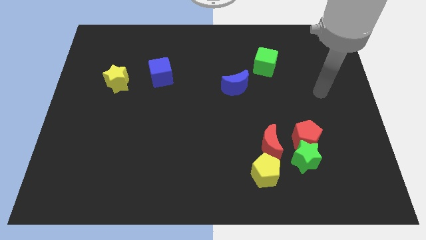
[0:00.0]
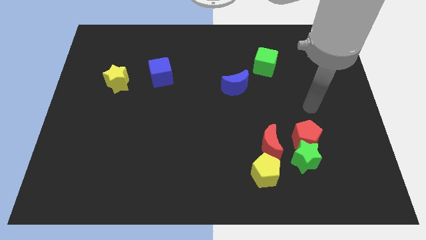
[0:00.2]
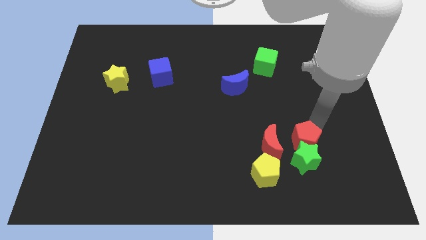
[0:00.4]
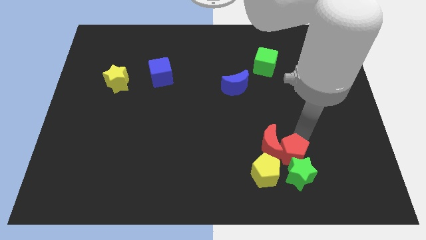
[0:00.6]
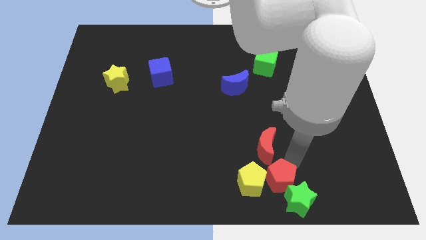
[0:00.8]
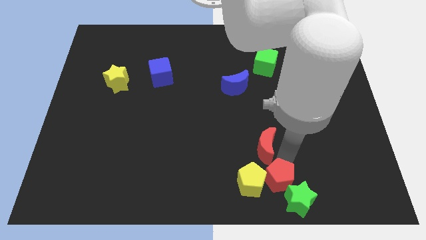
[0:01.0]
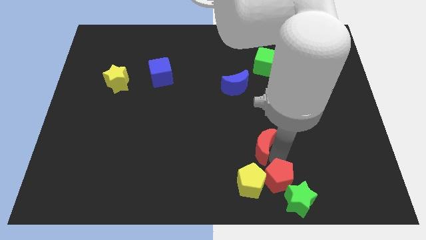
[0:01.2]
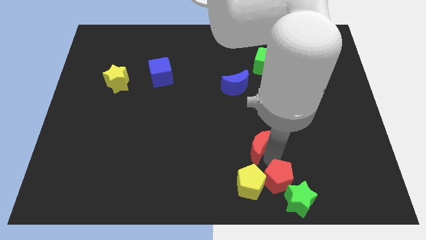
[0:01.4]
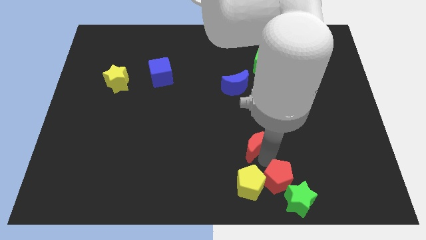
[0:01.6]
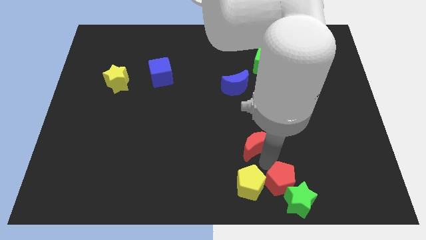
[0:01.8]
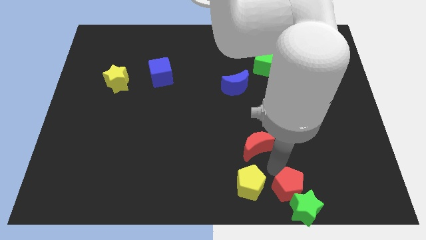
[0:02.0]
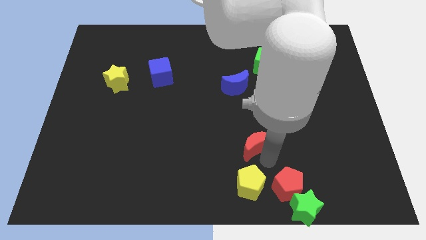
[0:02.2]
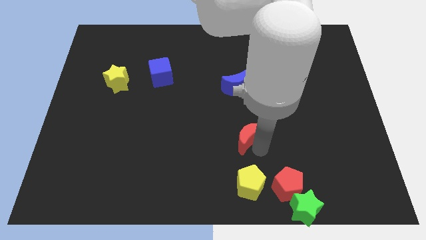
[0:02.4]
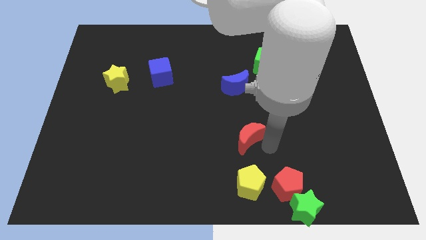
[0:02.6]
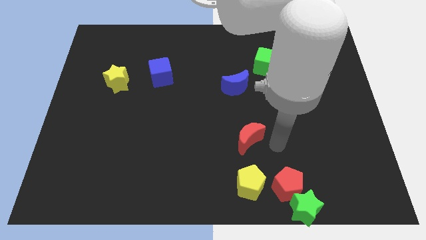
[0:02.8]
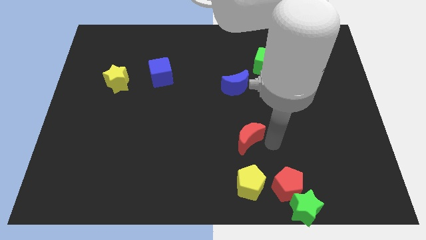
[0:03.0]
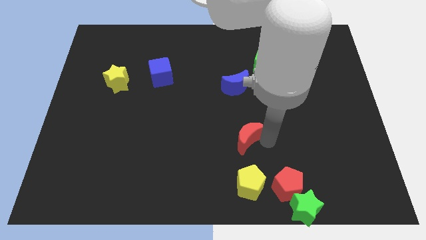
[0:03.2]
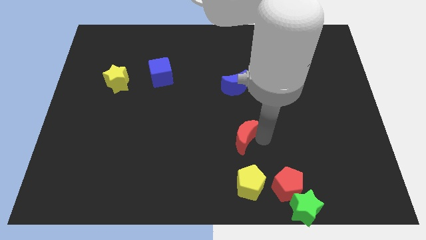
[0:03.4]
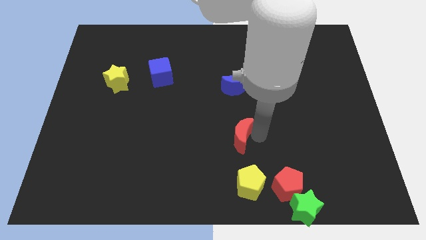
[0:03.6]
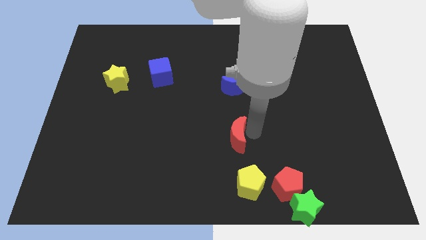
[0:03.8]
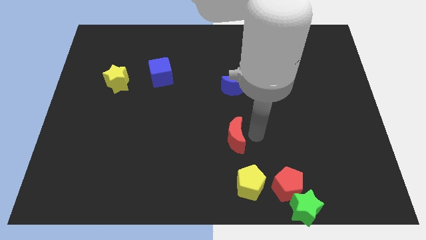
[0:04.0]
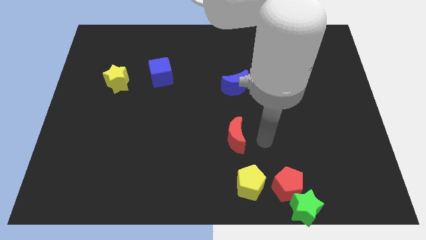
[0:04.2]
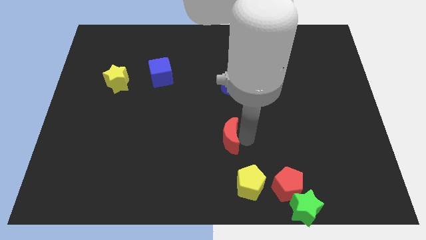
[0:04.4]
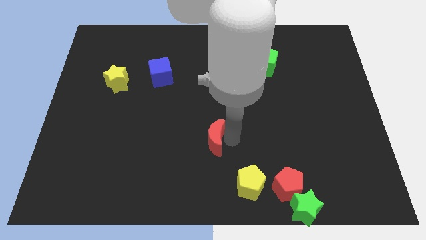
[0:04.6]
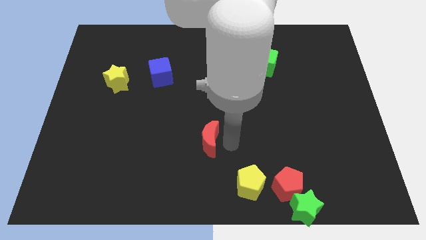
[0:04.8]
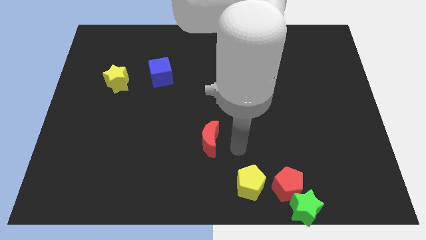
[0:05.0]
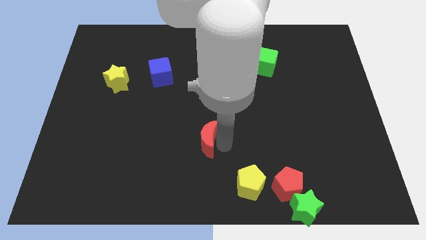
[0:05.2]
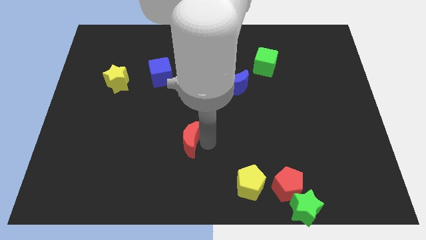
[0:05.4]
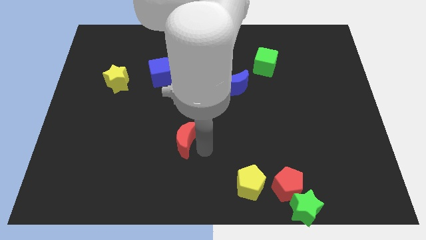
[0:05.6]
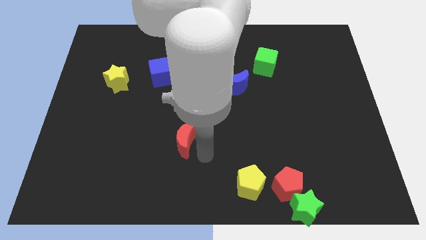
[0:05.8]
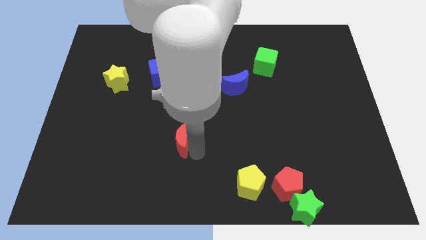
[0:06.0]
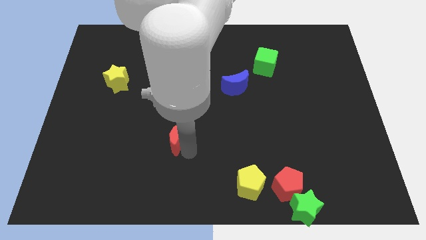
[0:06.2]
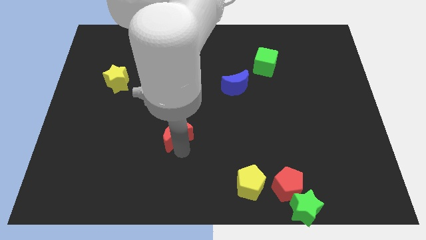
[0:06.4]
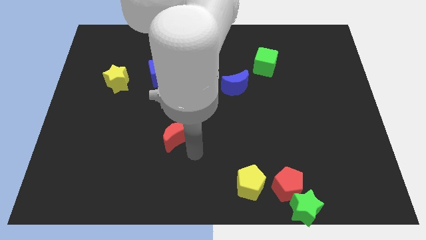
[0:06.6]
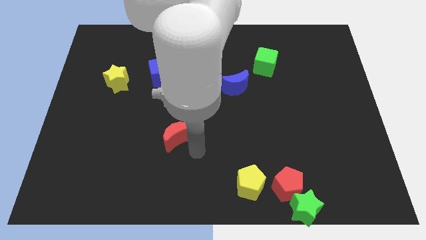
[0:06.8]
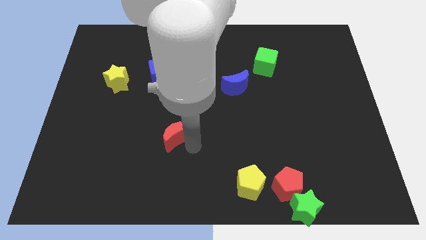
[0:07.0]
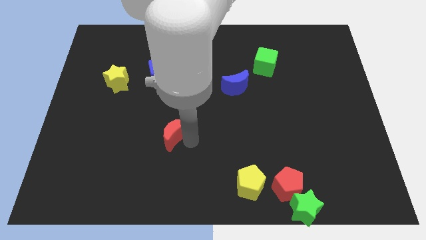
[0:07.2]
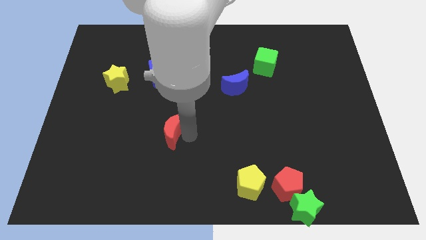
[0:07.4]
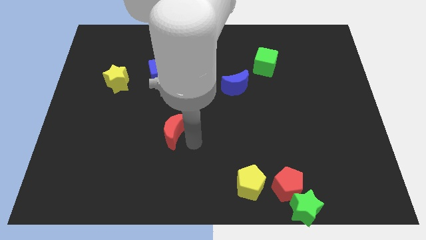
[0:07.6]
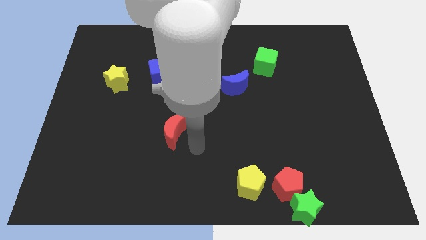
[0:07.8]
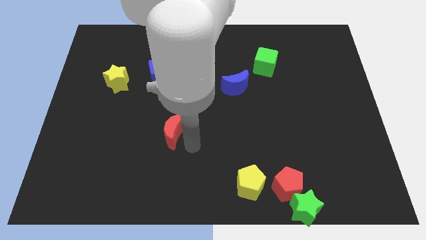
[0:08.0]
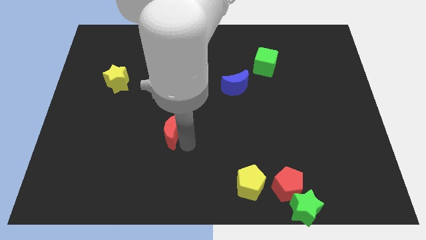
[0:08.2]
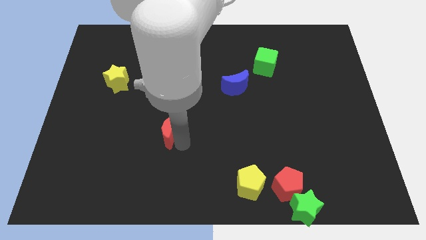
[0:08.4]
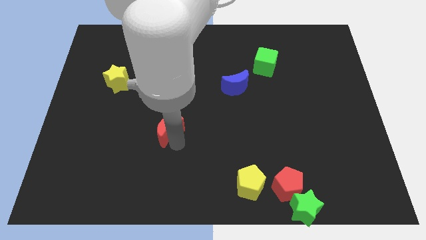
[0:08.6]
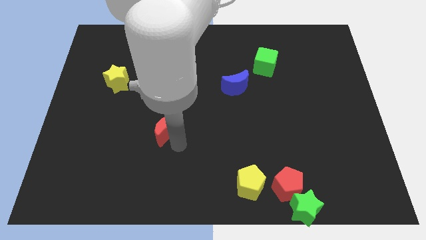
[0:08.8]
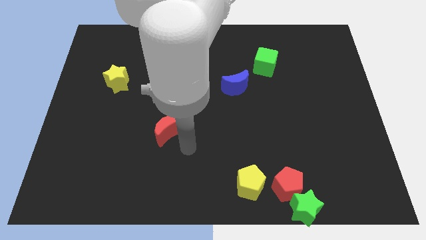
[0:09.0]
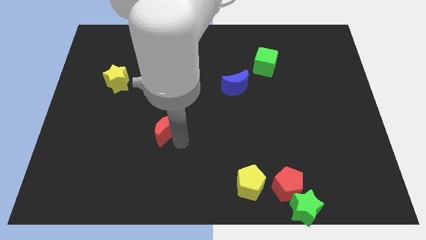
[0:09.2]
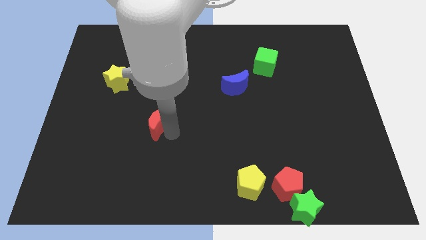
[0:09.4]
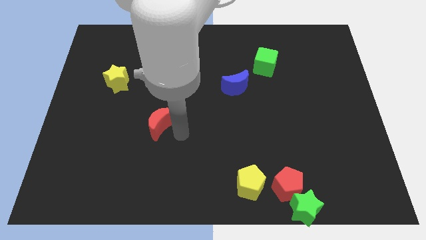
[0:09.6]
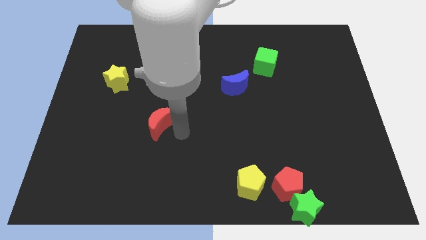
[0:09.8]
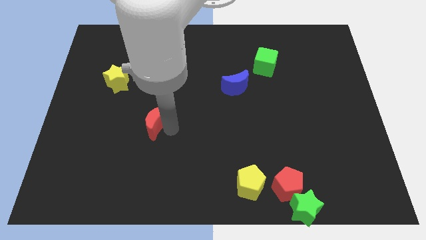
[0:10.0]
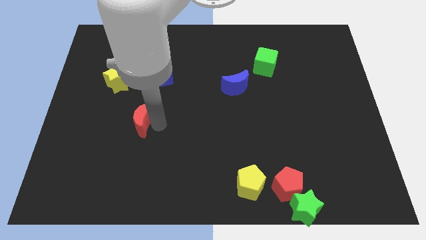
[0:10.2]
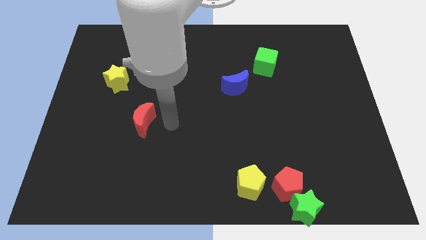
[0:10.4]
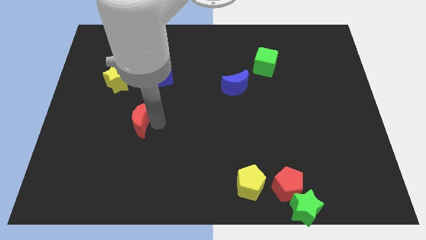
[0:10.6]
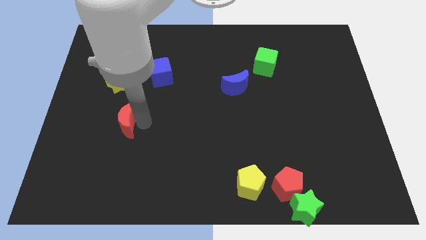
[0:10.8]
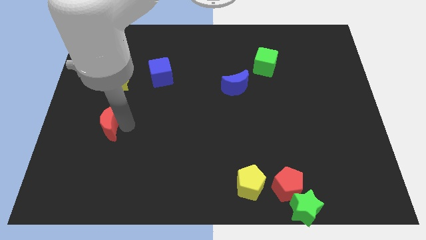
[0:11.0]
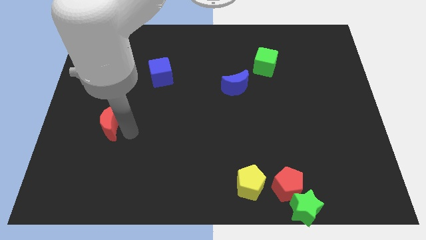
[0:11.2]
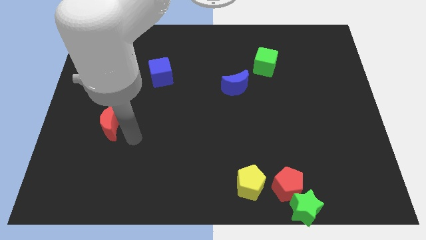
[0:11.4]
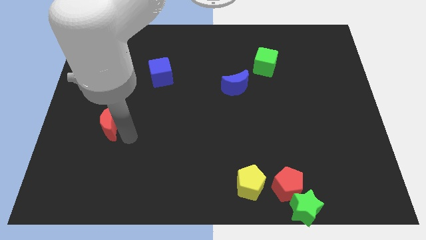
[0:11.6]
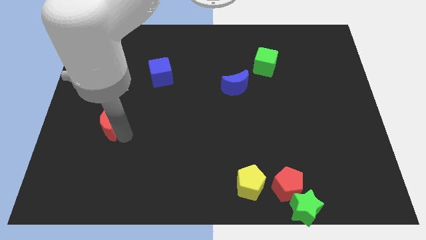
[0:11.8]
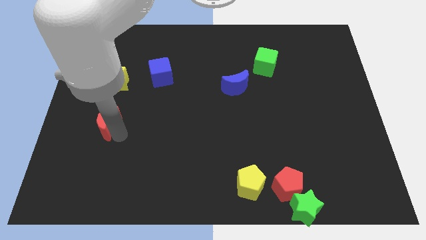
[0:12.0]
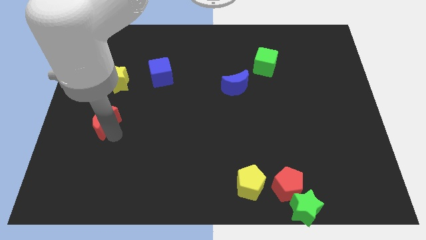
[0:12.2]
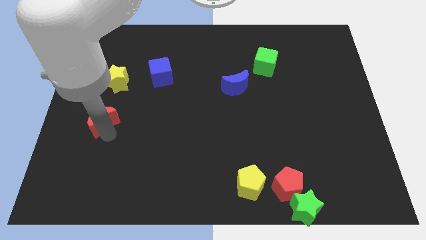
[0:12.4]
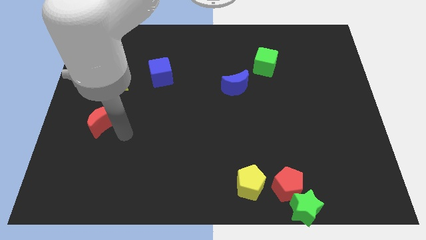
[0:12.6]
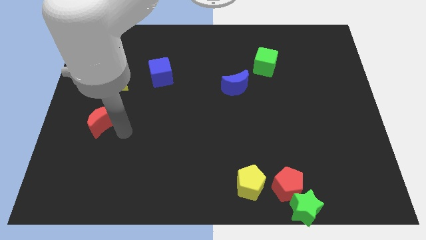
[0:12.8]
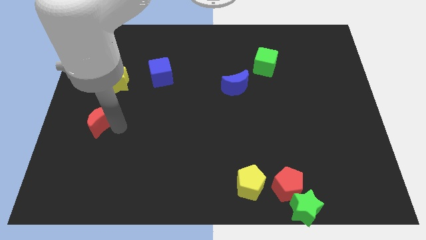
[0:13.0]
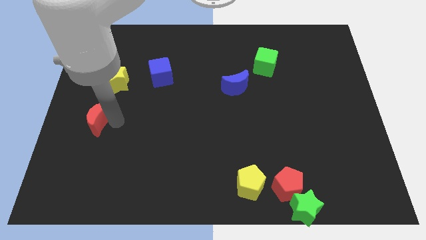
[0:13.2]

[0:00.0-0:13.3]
slide the red moon to the center left
